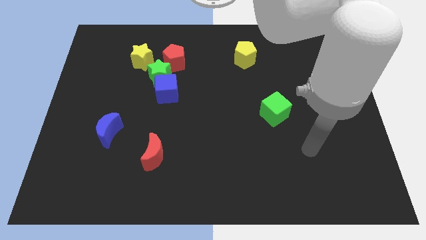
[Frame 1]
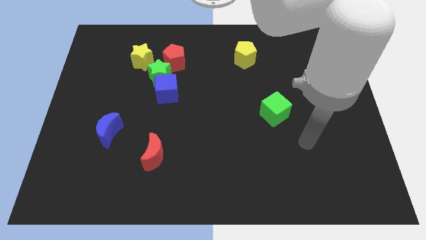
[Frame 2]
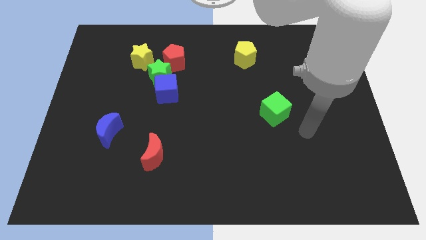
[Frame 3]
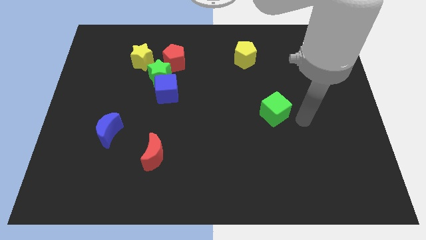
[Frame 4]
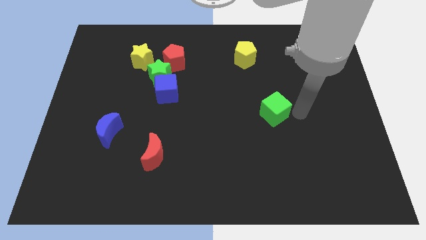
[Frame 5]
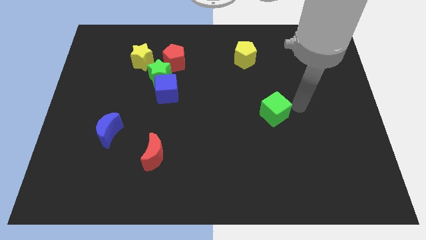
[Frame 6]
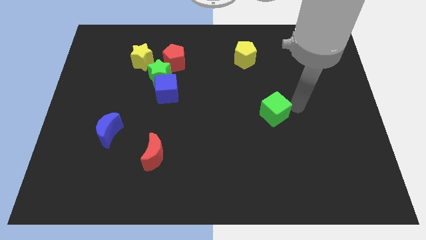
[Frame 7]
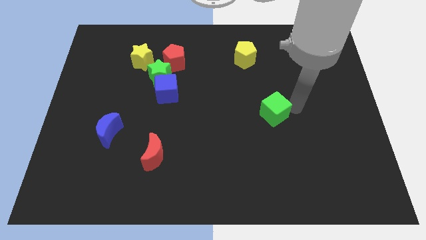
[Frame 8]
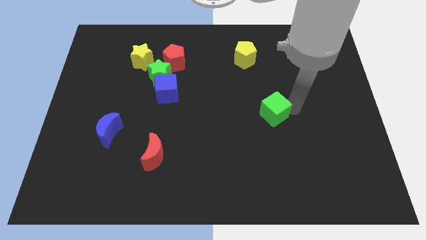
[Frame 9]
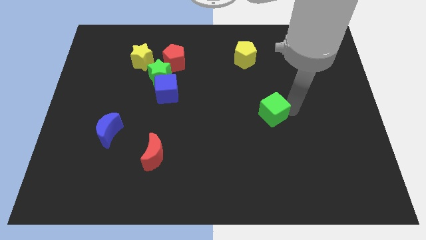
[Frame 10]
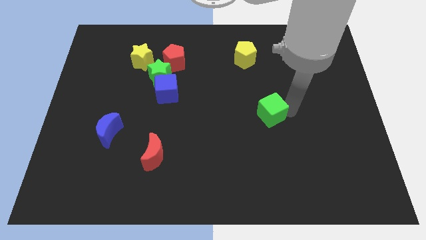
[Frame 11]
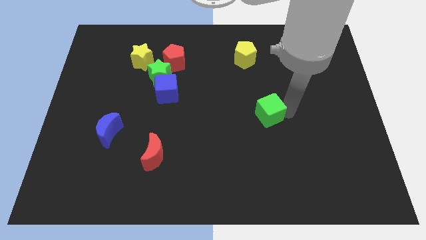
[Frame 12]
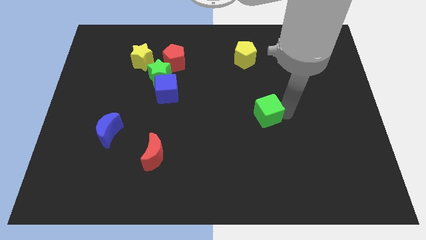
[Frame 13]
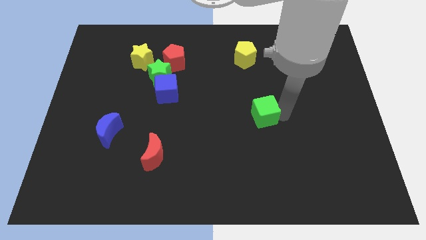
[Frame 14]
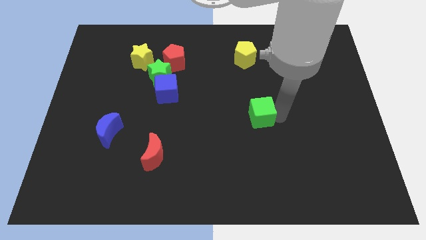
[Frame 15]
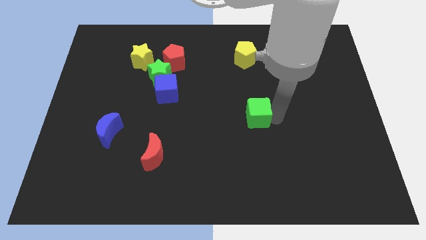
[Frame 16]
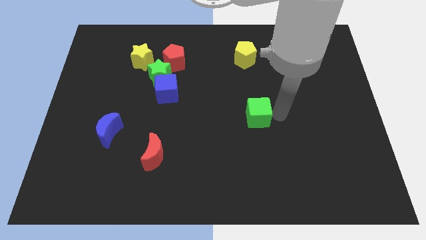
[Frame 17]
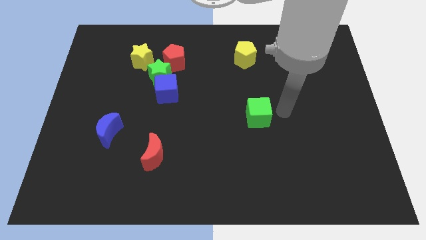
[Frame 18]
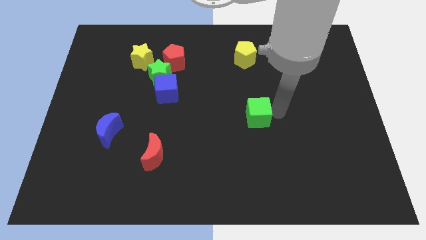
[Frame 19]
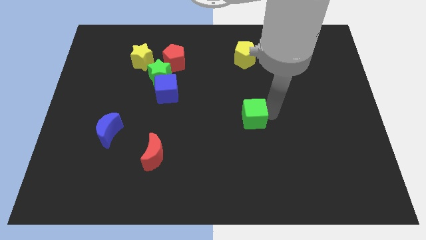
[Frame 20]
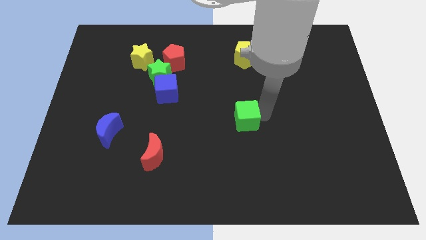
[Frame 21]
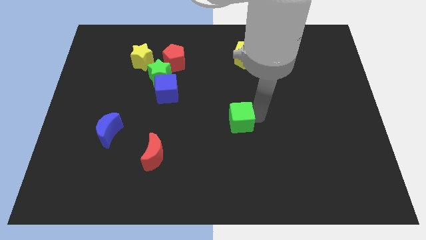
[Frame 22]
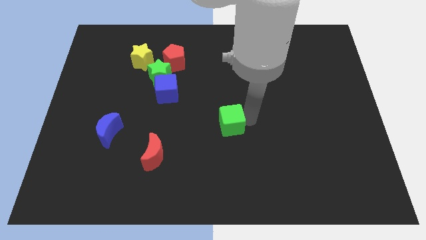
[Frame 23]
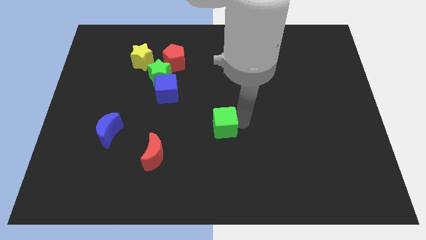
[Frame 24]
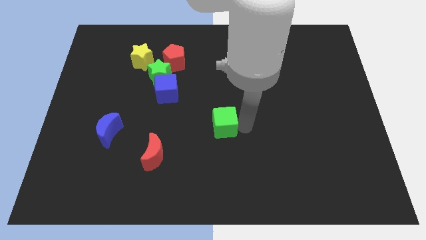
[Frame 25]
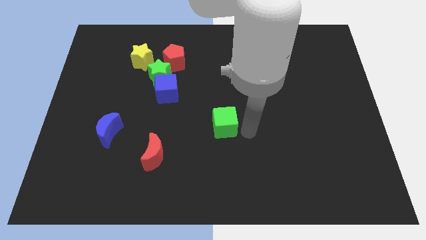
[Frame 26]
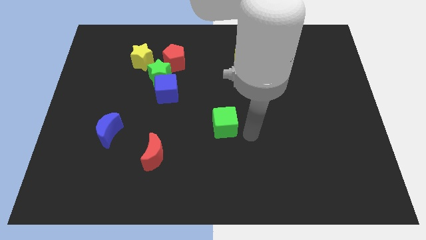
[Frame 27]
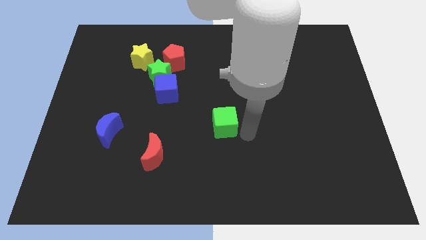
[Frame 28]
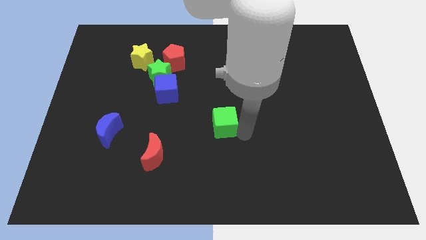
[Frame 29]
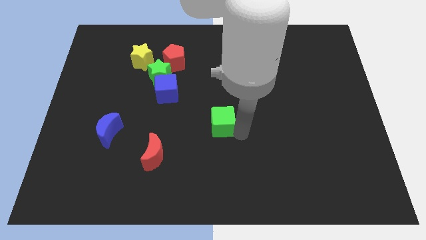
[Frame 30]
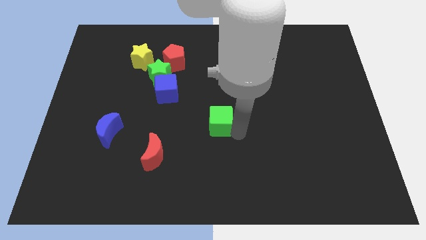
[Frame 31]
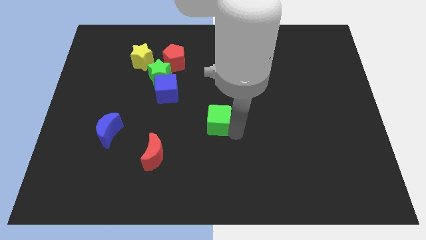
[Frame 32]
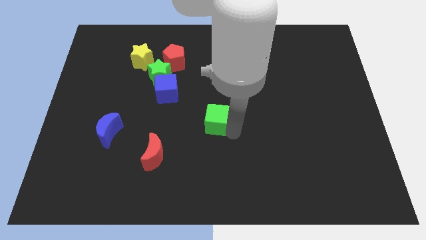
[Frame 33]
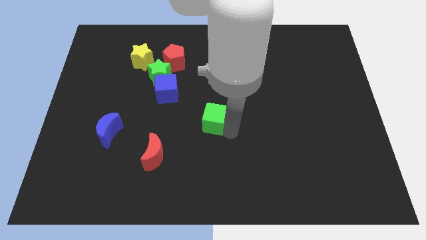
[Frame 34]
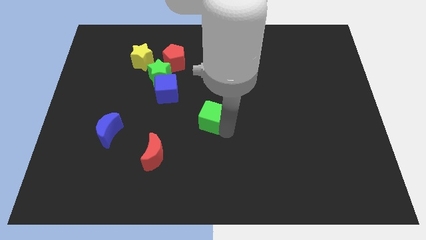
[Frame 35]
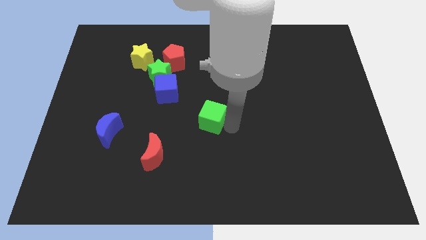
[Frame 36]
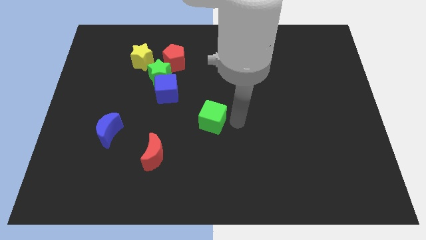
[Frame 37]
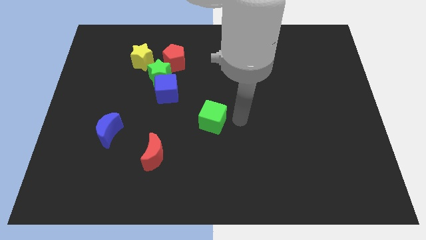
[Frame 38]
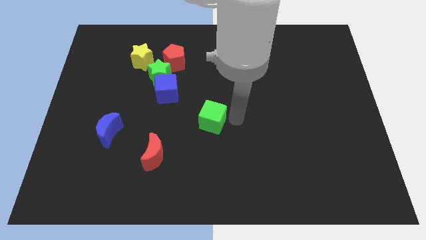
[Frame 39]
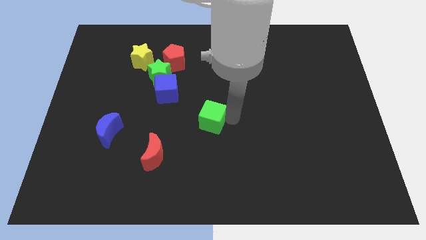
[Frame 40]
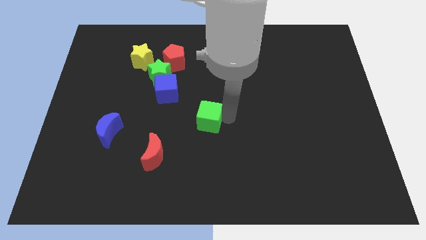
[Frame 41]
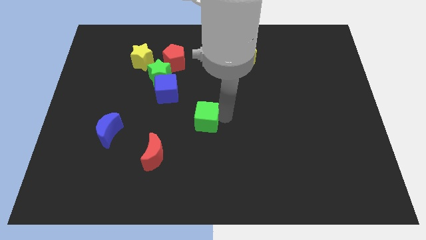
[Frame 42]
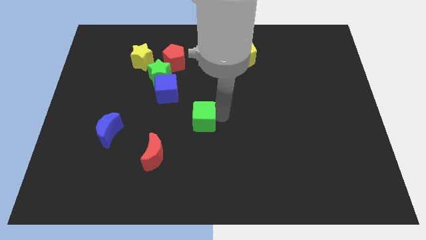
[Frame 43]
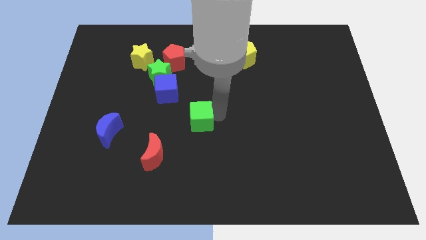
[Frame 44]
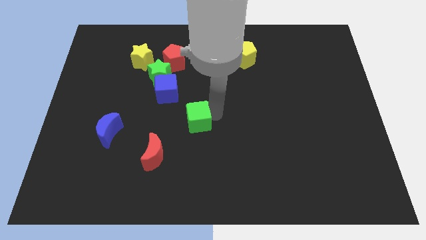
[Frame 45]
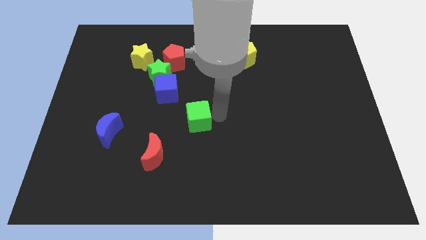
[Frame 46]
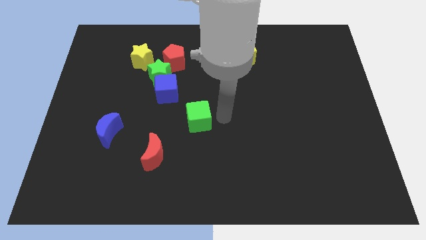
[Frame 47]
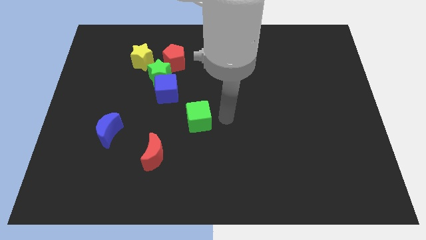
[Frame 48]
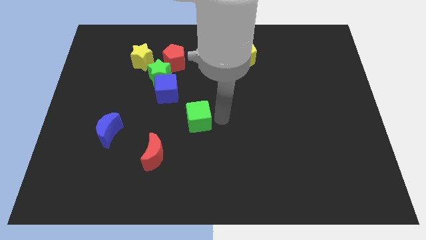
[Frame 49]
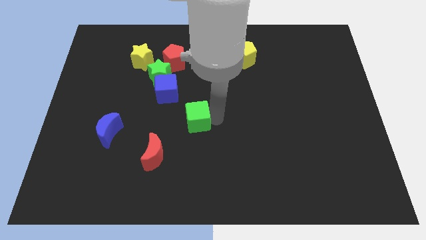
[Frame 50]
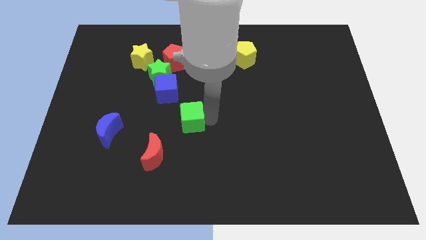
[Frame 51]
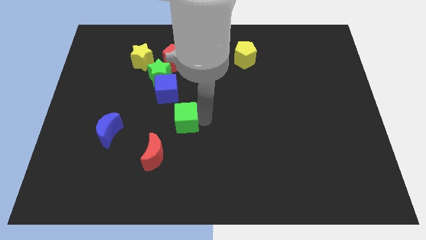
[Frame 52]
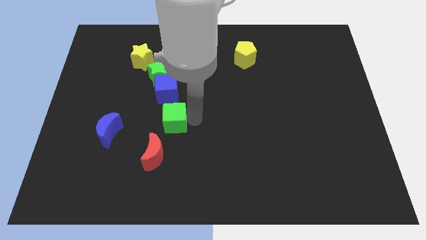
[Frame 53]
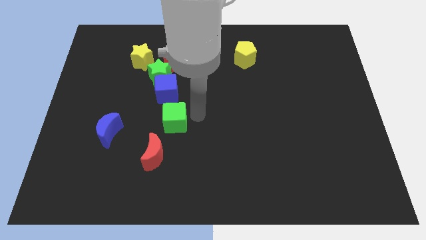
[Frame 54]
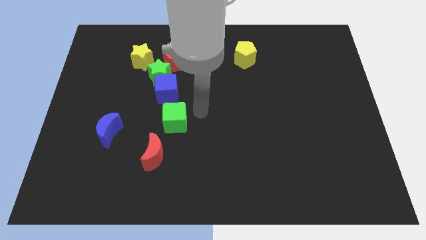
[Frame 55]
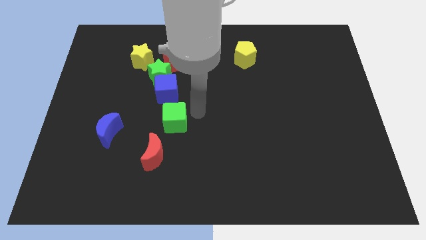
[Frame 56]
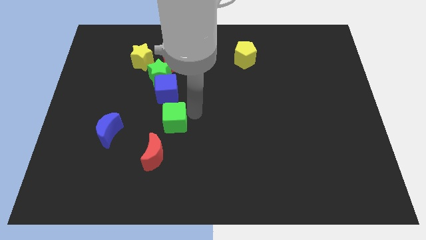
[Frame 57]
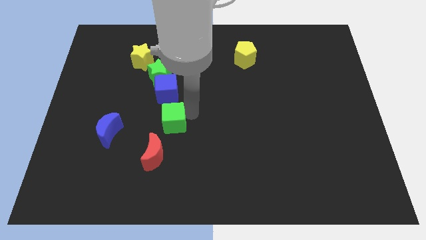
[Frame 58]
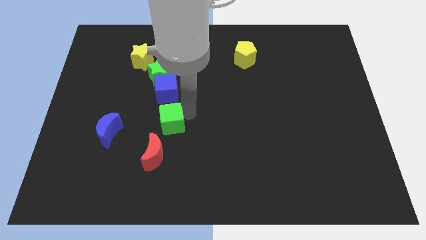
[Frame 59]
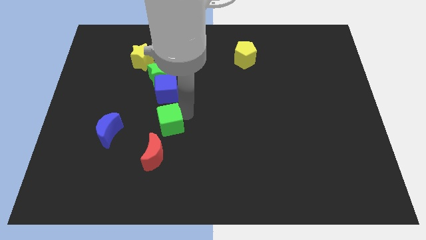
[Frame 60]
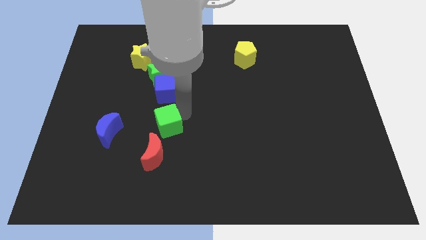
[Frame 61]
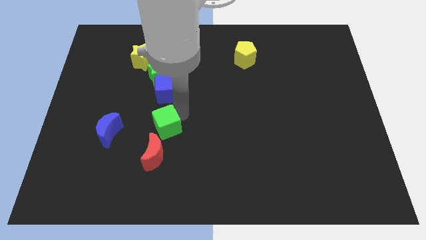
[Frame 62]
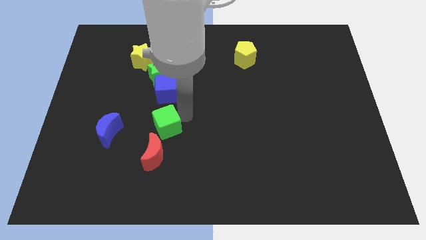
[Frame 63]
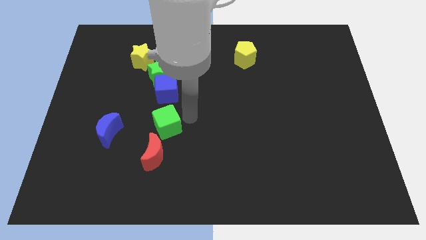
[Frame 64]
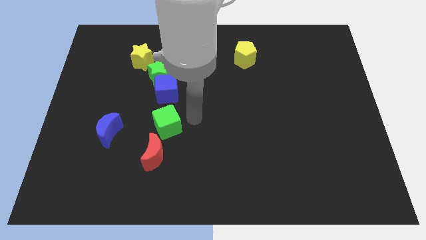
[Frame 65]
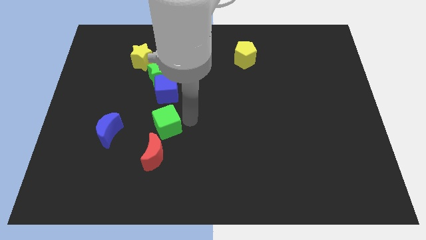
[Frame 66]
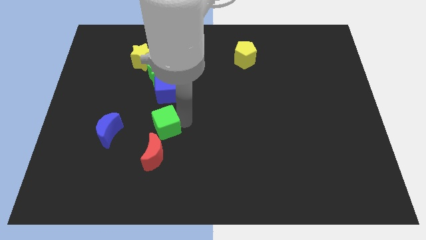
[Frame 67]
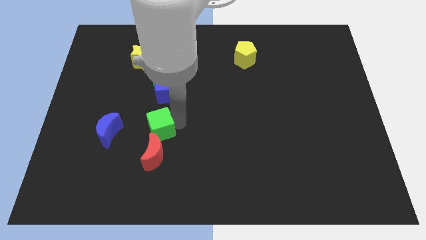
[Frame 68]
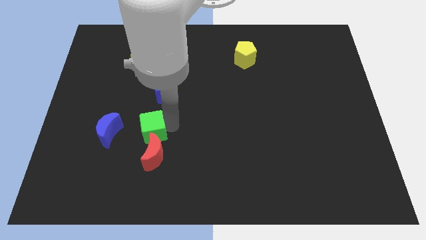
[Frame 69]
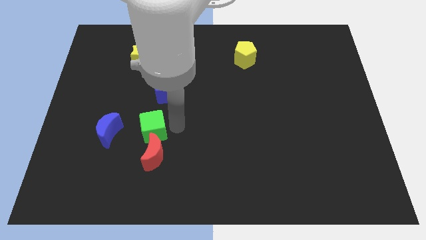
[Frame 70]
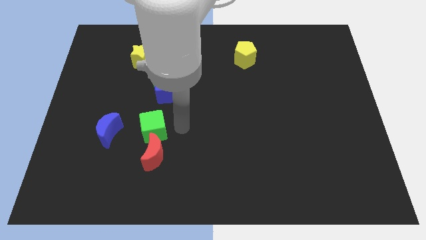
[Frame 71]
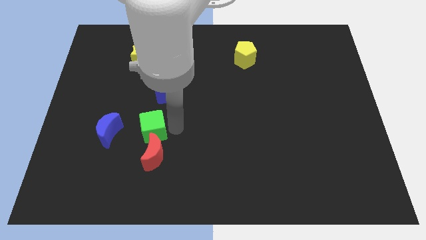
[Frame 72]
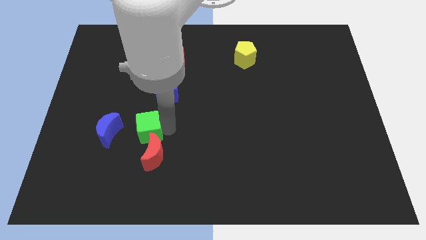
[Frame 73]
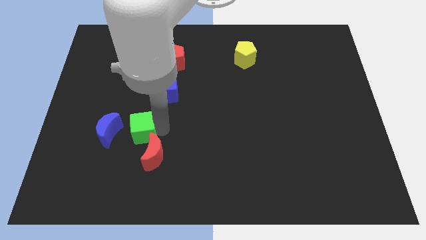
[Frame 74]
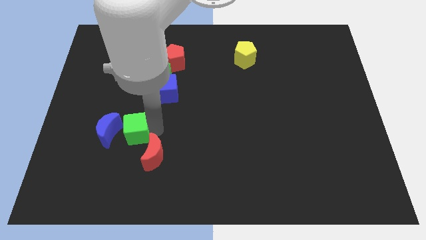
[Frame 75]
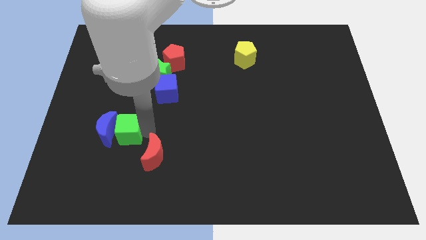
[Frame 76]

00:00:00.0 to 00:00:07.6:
put the green cube close to the blue moon
